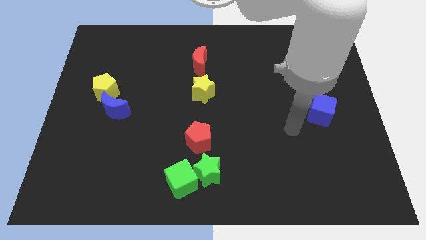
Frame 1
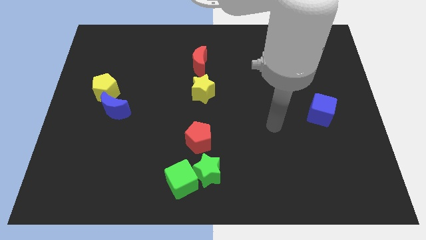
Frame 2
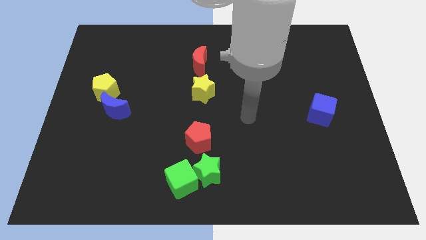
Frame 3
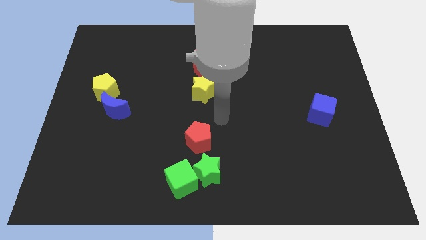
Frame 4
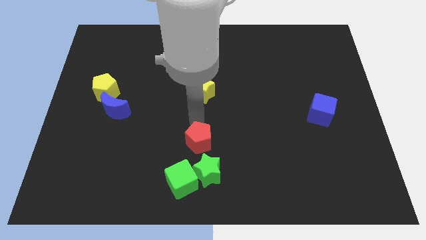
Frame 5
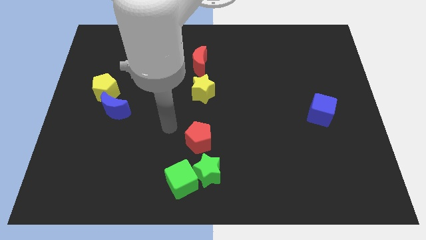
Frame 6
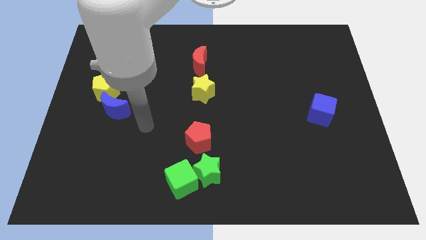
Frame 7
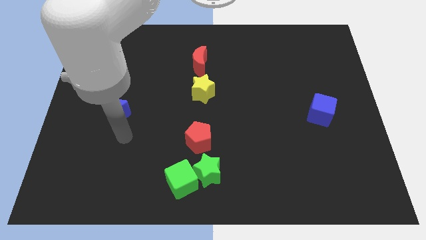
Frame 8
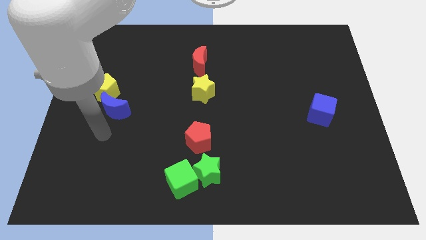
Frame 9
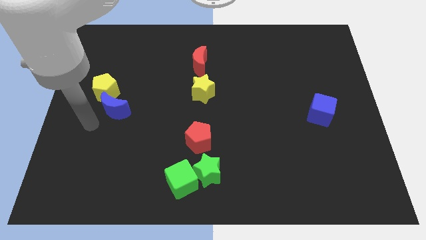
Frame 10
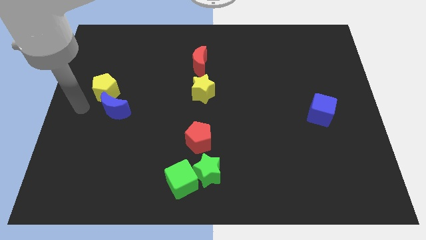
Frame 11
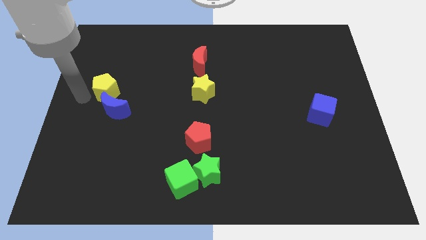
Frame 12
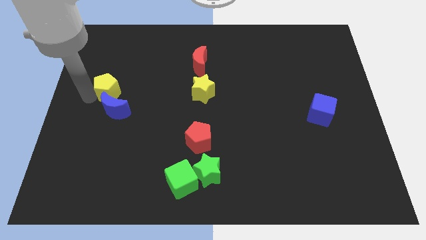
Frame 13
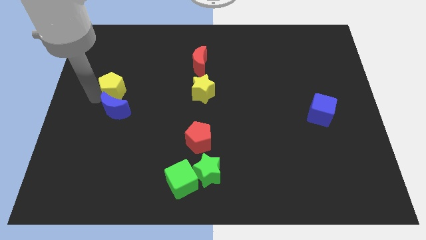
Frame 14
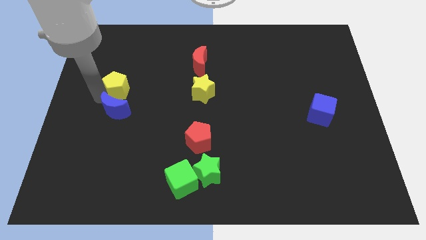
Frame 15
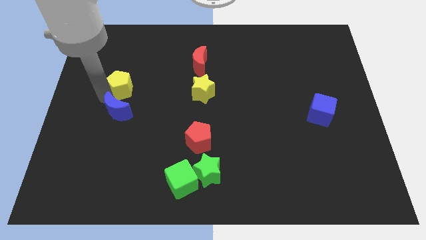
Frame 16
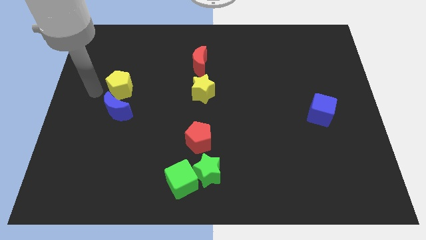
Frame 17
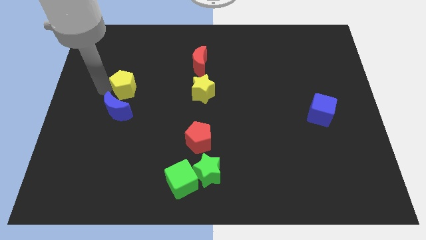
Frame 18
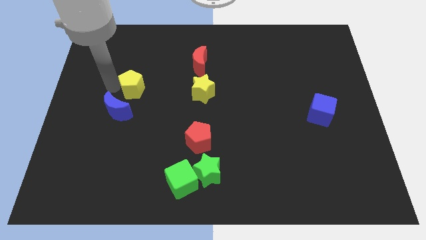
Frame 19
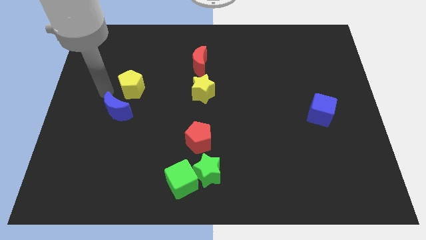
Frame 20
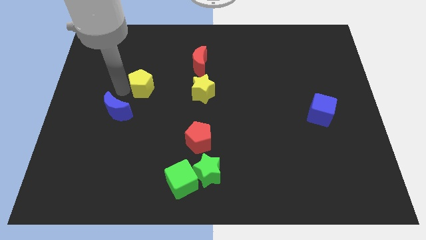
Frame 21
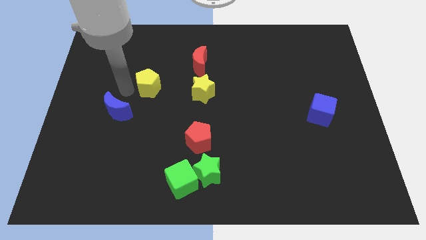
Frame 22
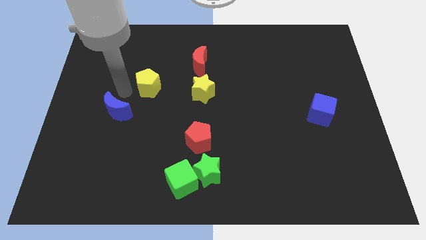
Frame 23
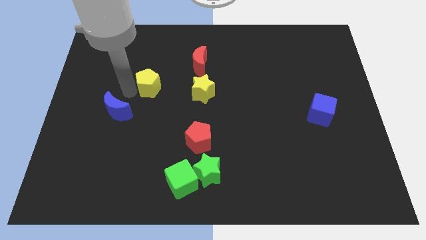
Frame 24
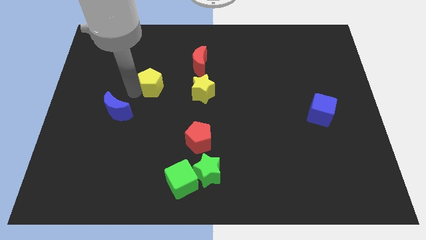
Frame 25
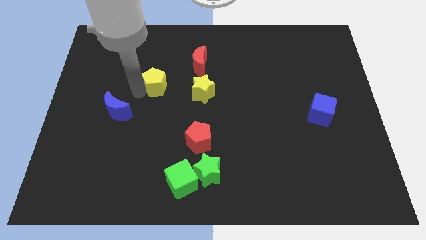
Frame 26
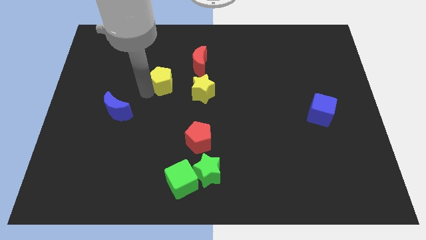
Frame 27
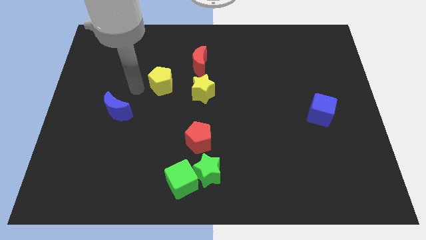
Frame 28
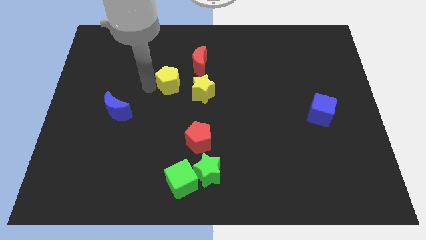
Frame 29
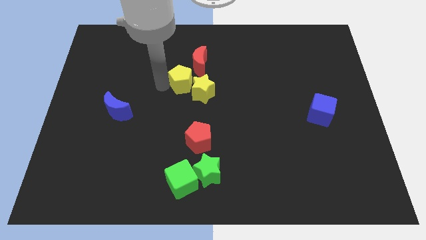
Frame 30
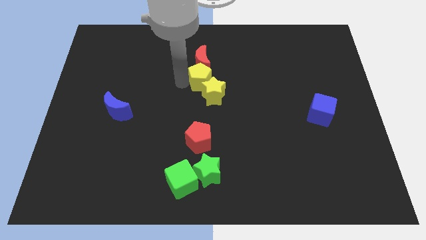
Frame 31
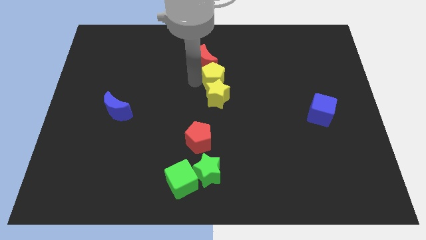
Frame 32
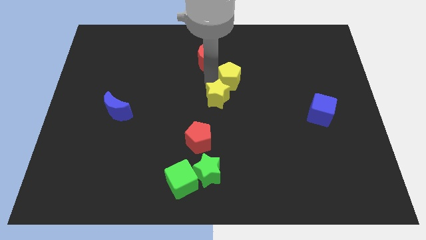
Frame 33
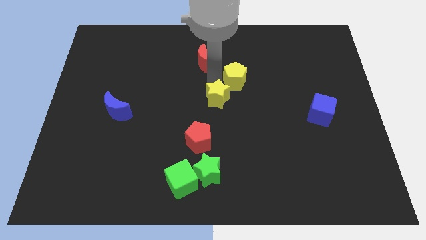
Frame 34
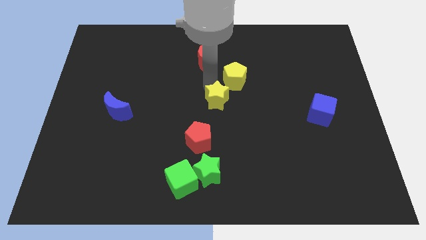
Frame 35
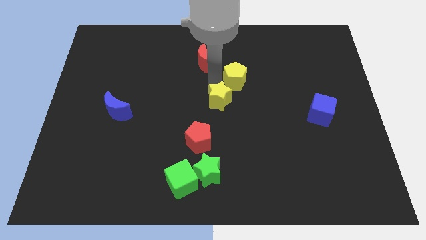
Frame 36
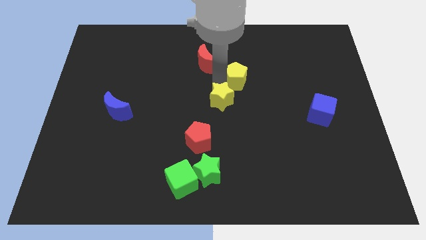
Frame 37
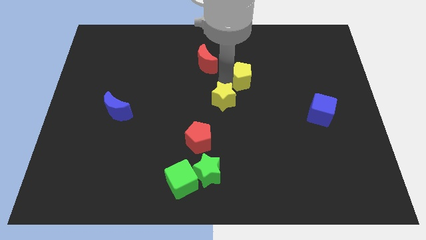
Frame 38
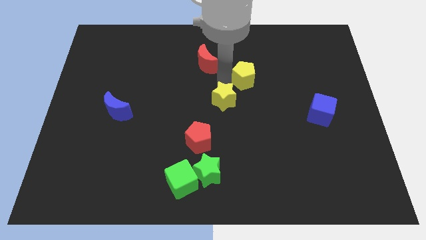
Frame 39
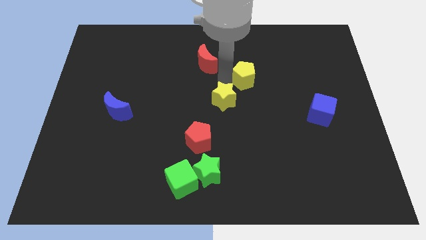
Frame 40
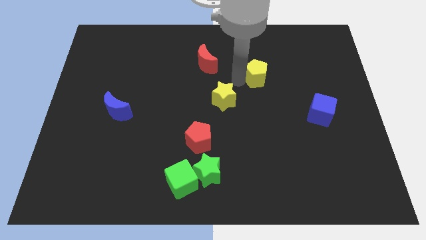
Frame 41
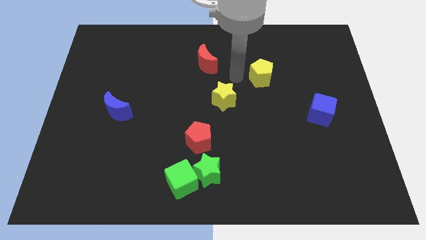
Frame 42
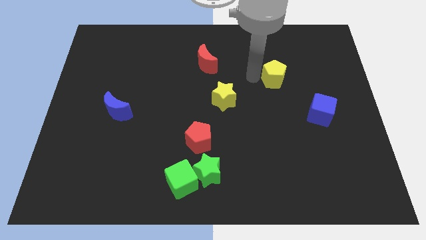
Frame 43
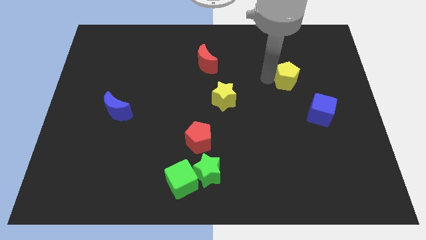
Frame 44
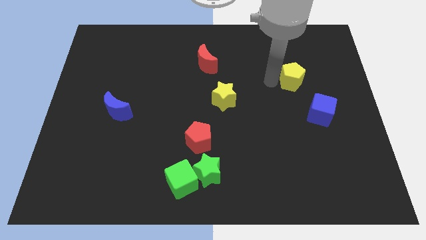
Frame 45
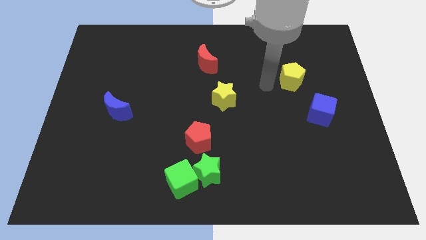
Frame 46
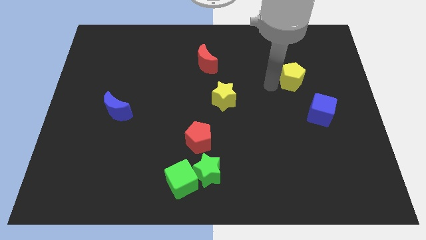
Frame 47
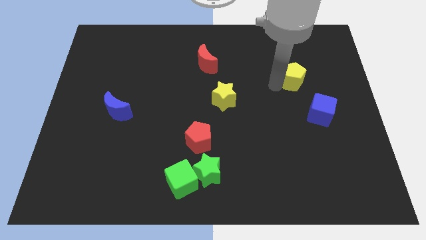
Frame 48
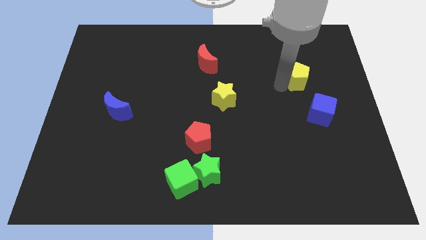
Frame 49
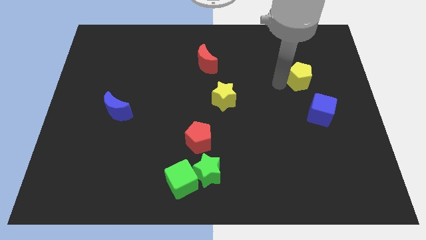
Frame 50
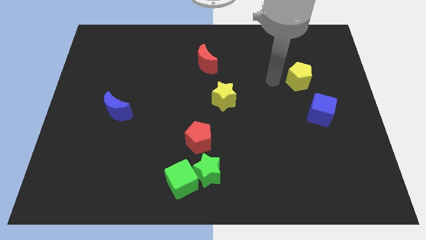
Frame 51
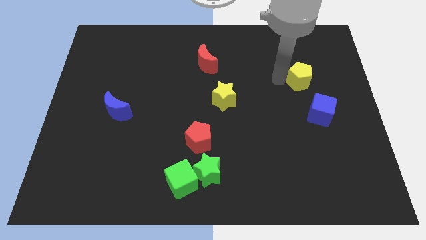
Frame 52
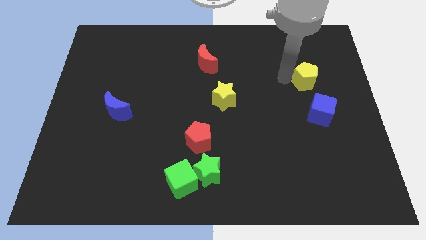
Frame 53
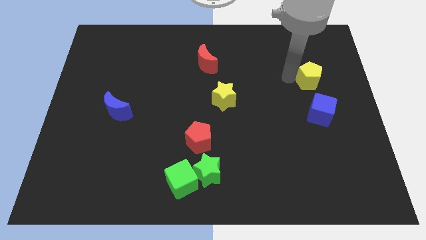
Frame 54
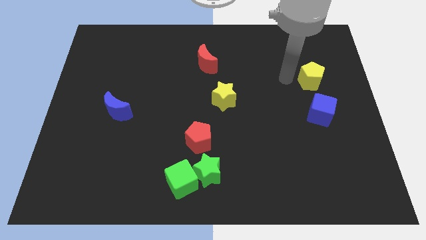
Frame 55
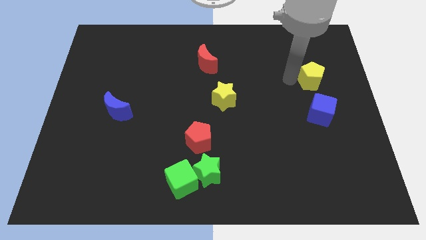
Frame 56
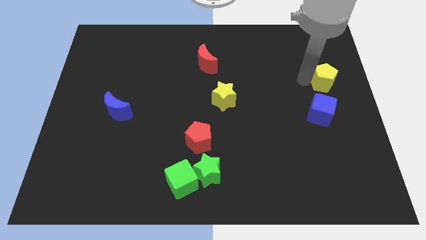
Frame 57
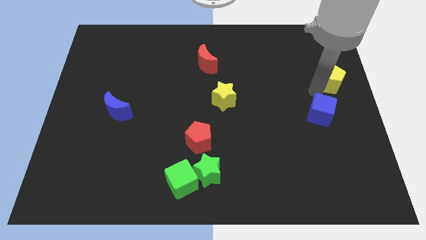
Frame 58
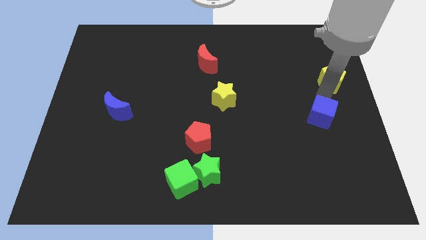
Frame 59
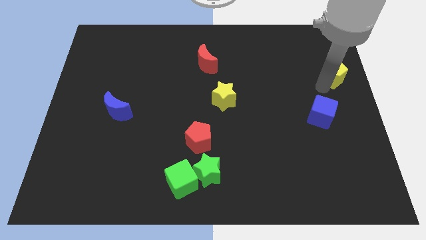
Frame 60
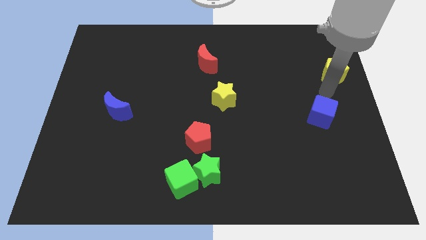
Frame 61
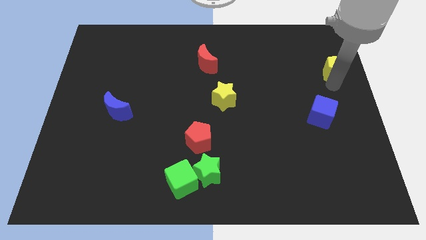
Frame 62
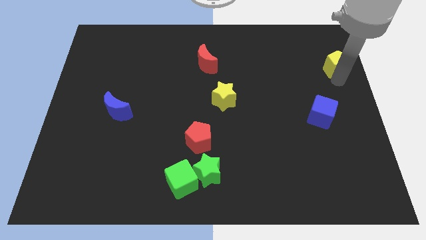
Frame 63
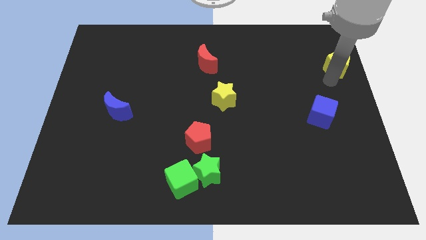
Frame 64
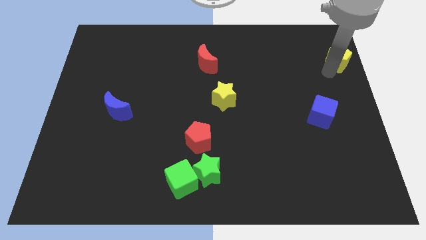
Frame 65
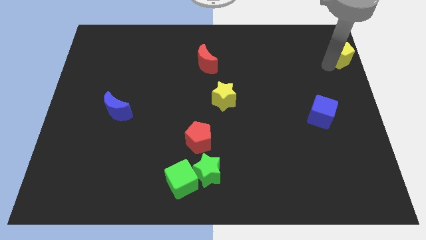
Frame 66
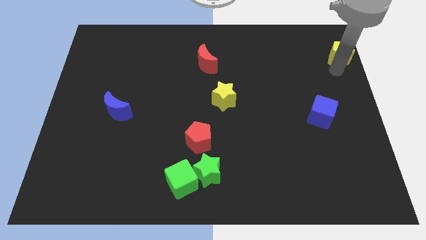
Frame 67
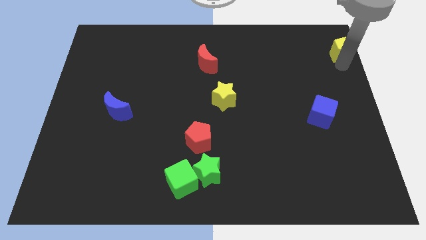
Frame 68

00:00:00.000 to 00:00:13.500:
push the yellow pentagon to the top right of the board
